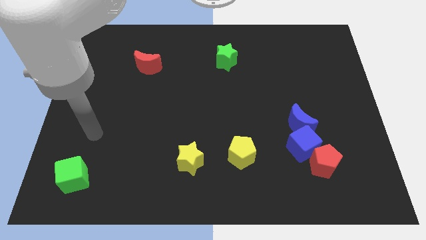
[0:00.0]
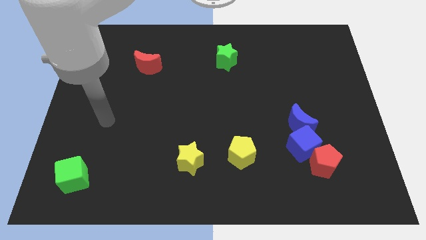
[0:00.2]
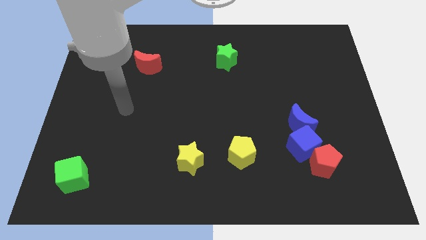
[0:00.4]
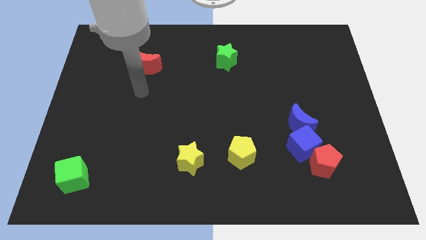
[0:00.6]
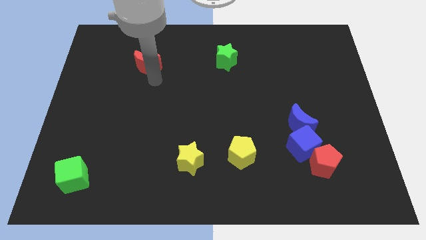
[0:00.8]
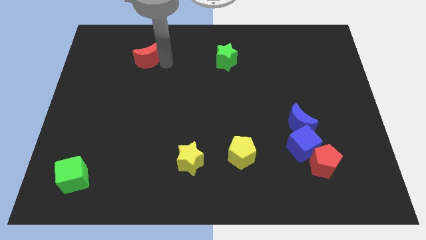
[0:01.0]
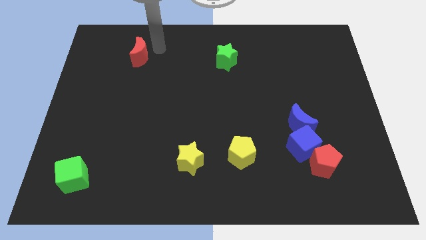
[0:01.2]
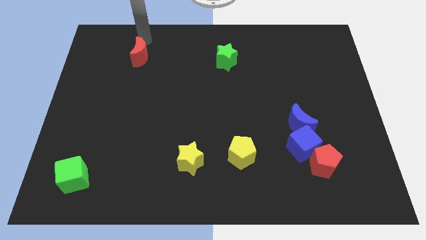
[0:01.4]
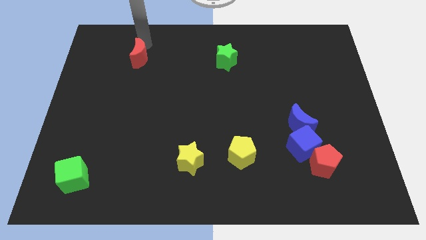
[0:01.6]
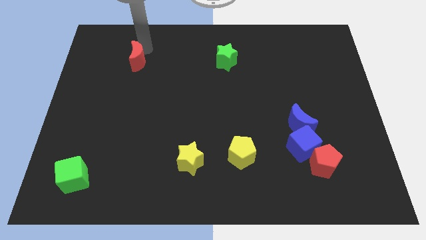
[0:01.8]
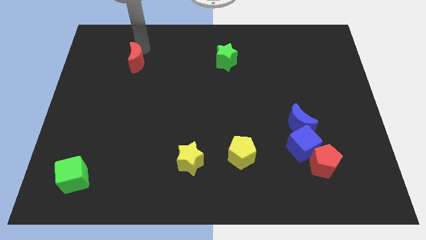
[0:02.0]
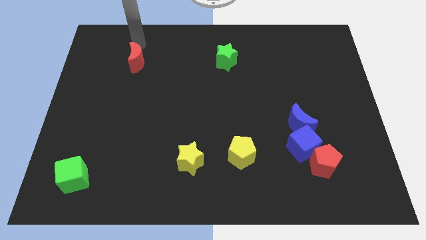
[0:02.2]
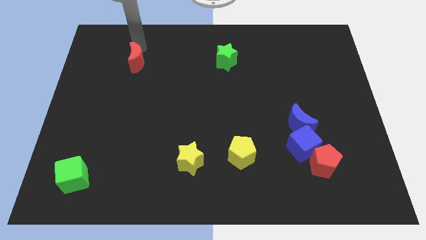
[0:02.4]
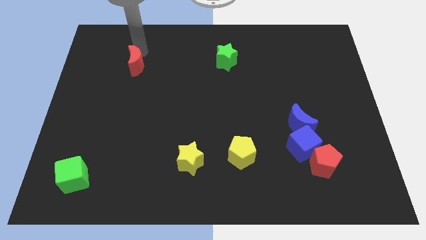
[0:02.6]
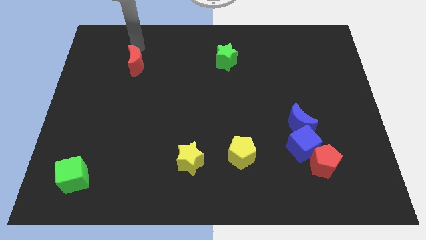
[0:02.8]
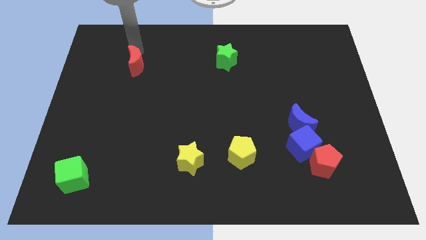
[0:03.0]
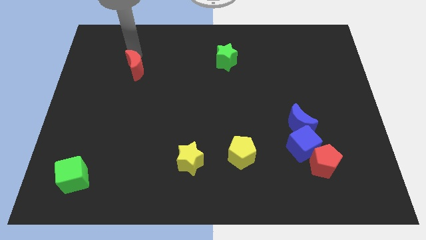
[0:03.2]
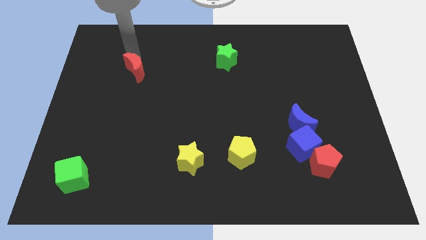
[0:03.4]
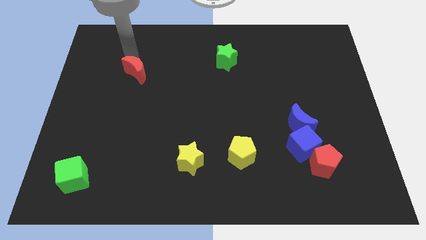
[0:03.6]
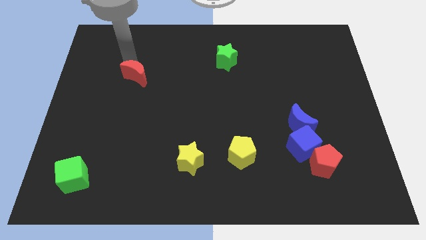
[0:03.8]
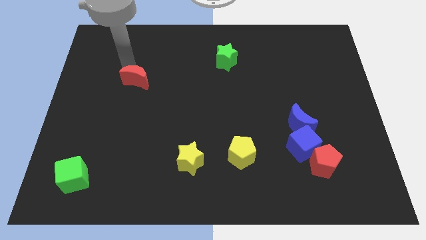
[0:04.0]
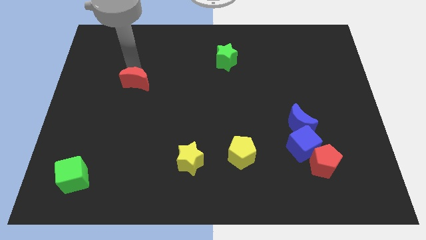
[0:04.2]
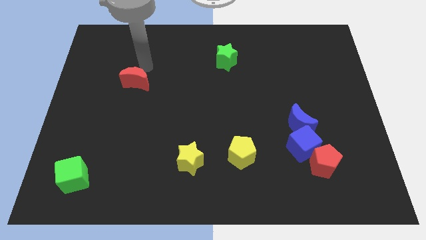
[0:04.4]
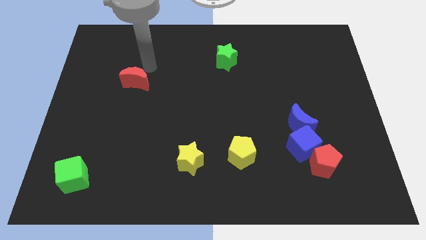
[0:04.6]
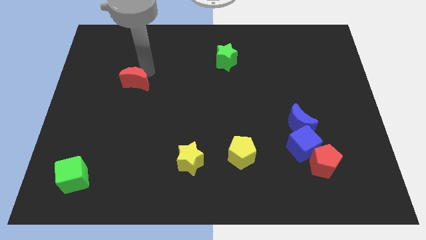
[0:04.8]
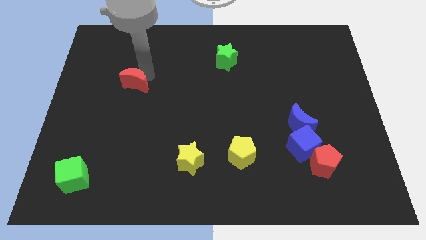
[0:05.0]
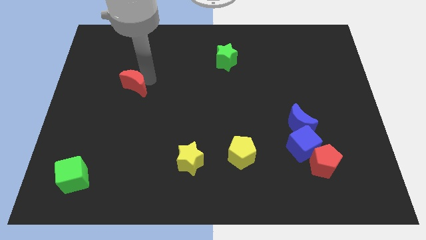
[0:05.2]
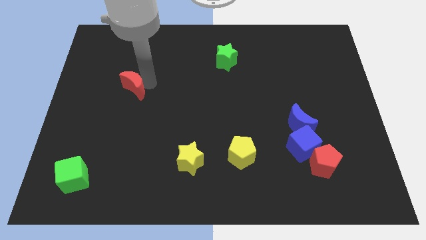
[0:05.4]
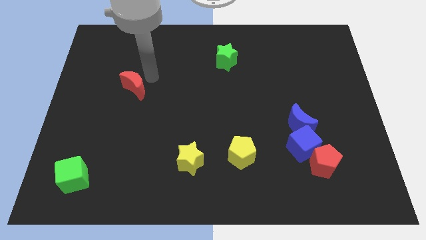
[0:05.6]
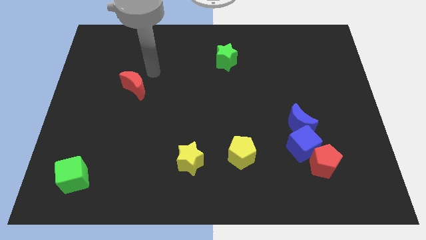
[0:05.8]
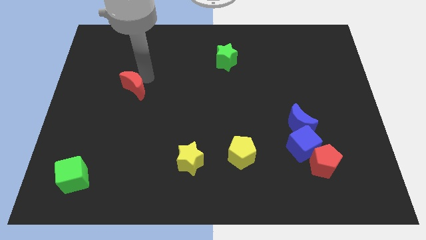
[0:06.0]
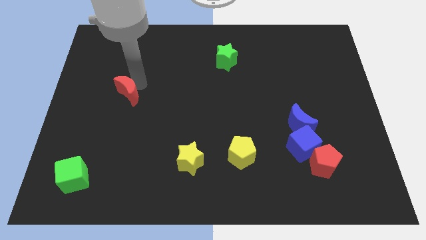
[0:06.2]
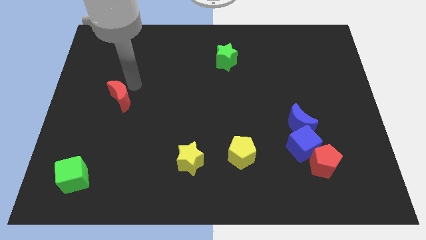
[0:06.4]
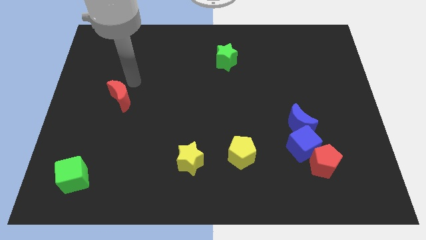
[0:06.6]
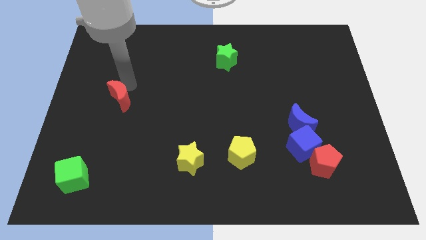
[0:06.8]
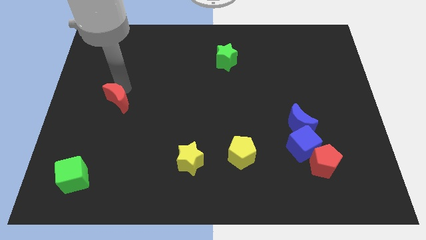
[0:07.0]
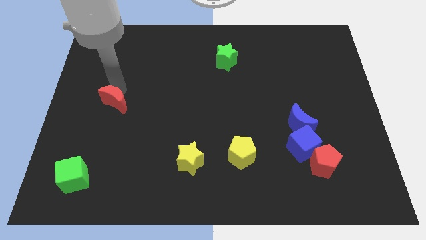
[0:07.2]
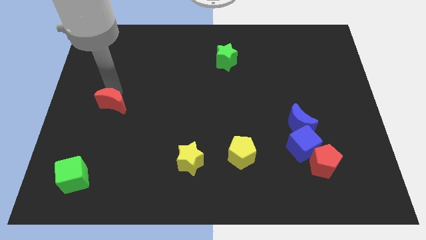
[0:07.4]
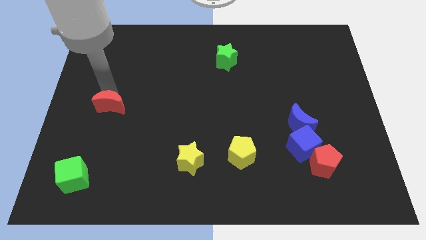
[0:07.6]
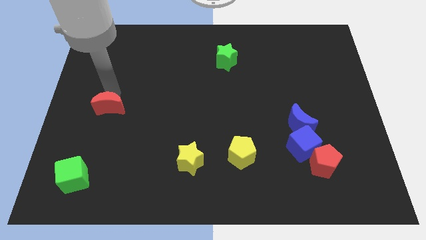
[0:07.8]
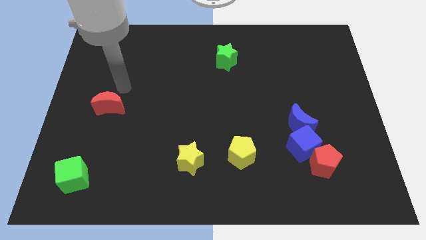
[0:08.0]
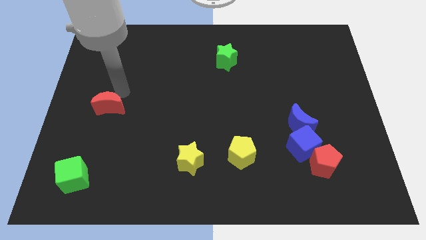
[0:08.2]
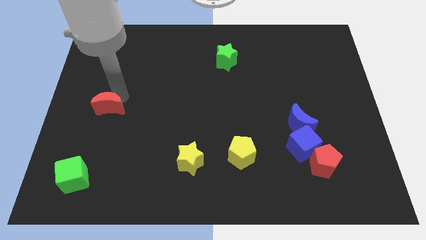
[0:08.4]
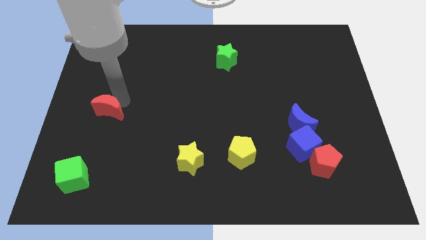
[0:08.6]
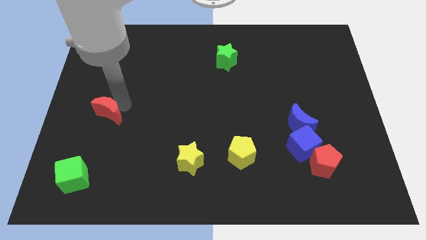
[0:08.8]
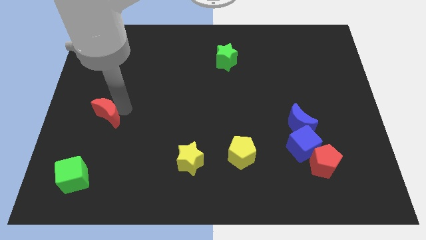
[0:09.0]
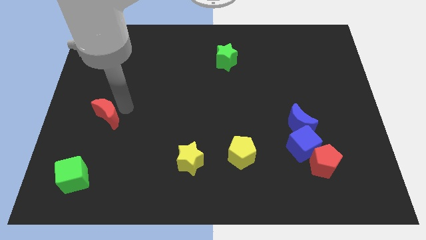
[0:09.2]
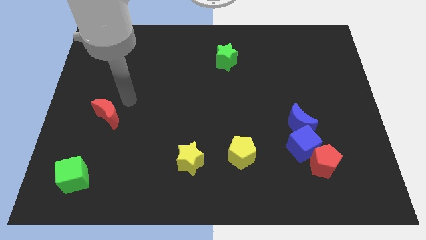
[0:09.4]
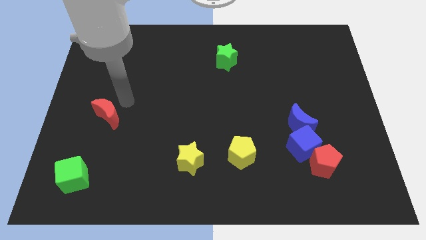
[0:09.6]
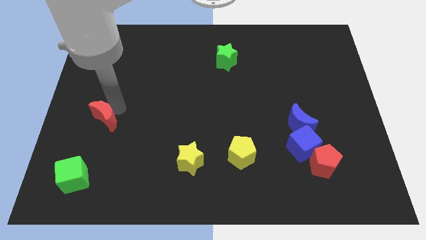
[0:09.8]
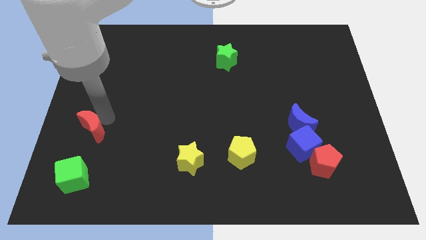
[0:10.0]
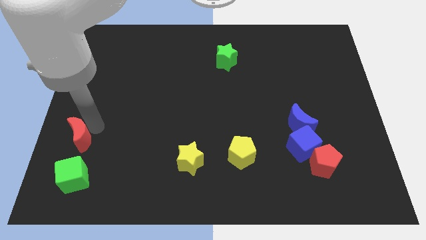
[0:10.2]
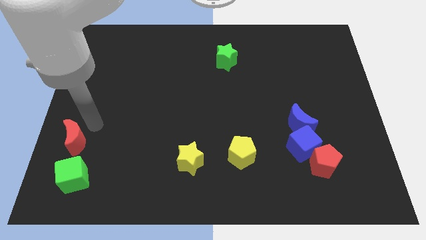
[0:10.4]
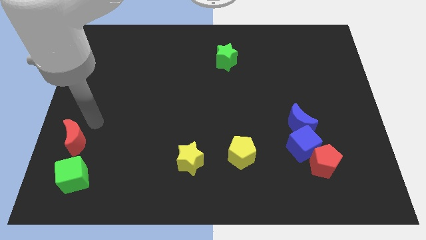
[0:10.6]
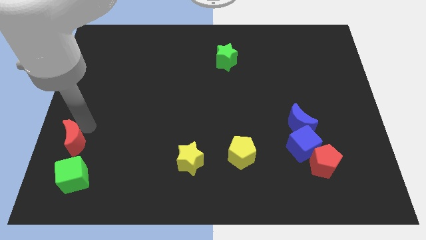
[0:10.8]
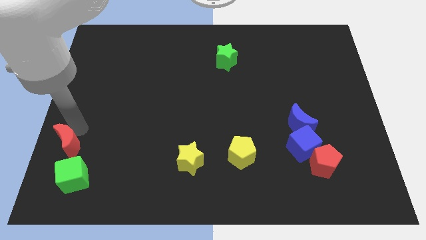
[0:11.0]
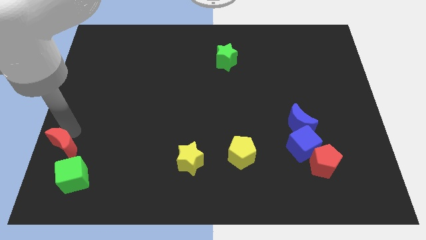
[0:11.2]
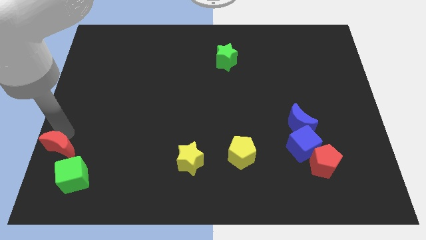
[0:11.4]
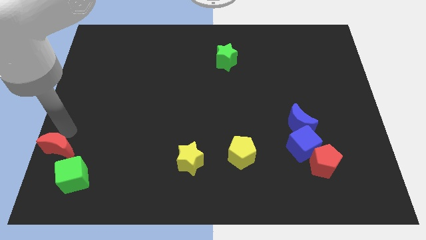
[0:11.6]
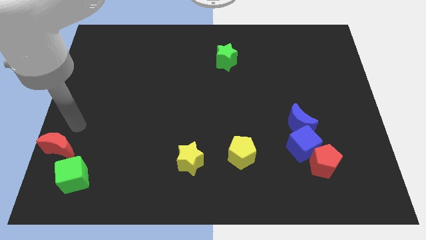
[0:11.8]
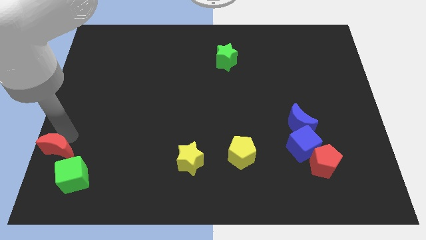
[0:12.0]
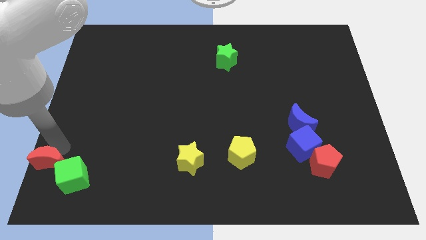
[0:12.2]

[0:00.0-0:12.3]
put the red moon to the bottom left of the board
